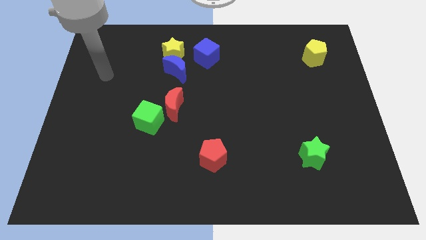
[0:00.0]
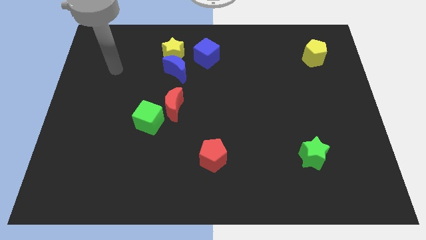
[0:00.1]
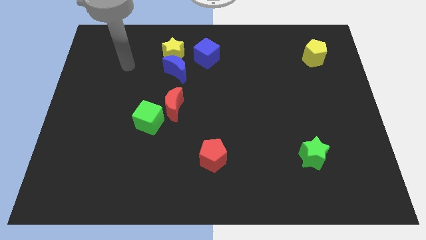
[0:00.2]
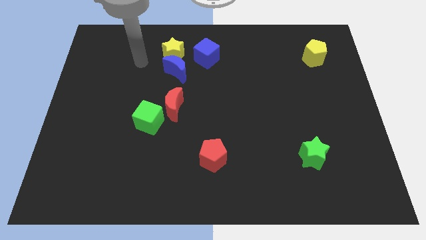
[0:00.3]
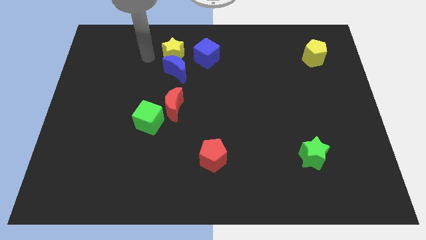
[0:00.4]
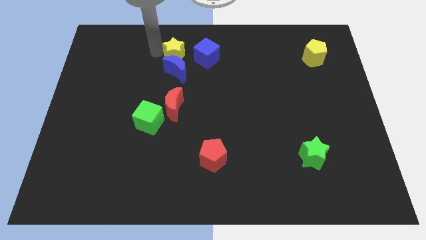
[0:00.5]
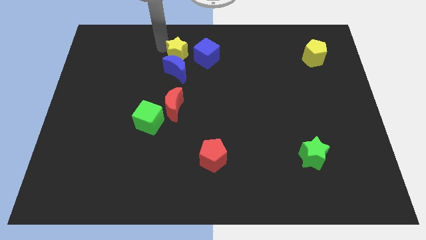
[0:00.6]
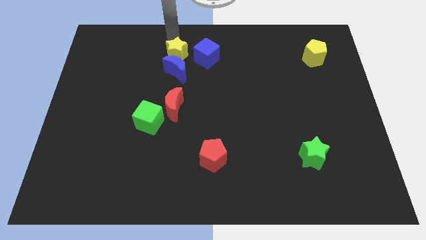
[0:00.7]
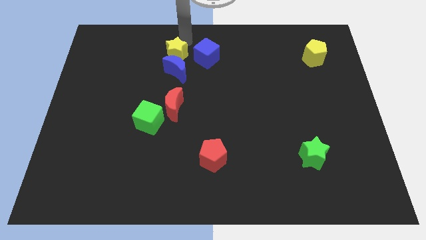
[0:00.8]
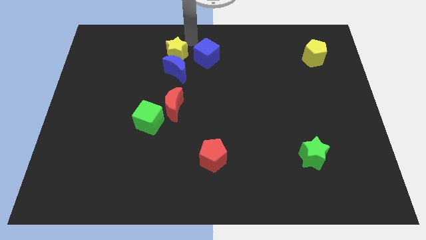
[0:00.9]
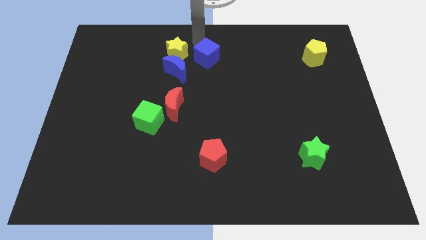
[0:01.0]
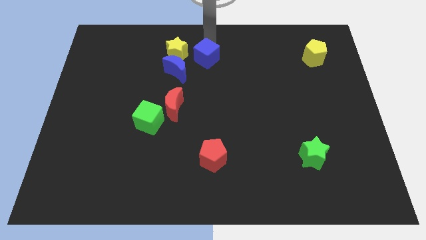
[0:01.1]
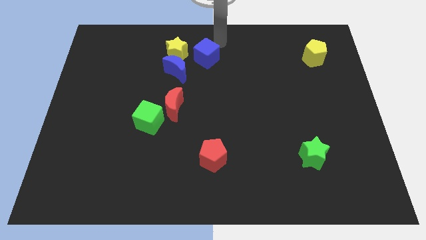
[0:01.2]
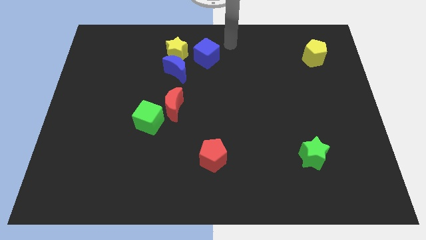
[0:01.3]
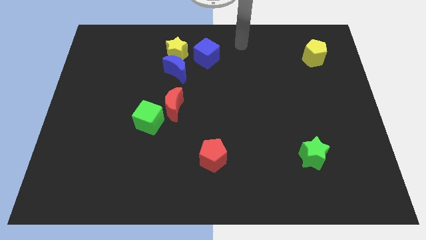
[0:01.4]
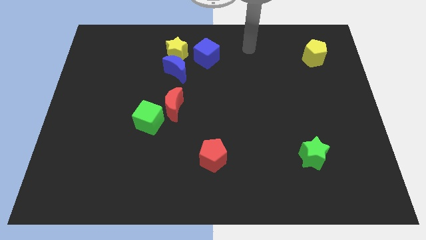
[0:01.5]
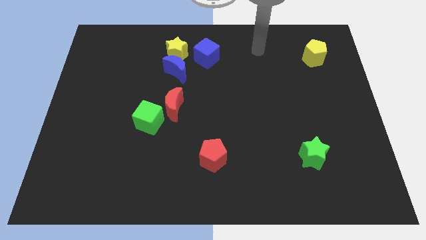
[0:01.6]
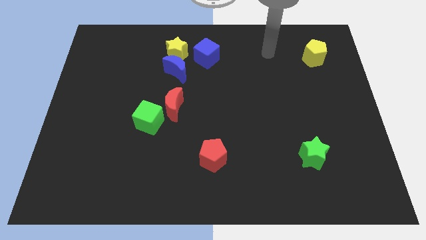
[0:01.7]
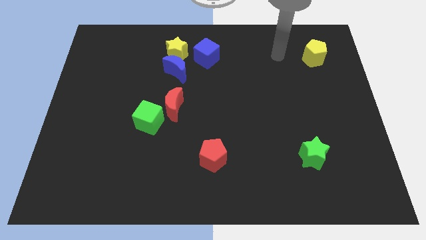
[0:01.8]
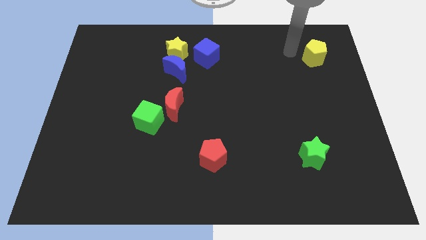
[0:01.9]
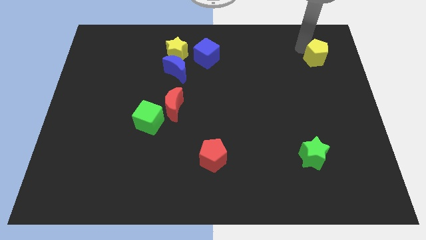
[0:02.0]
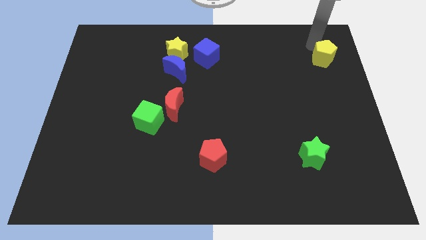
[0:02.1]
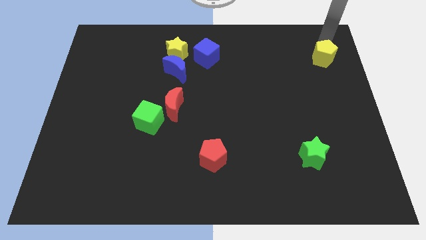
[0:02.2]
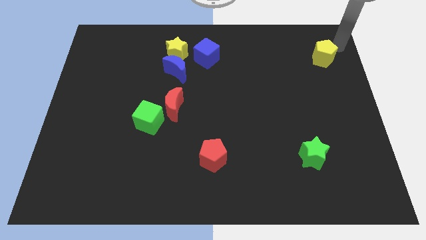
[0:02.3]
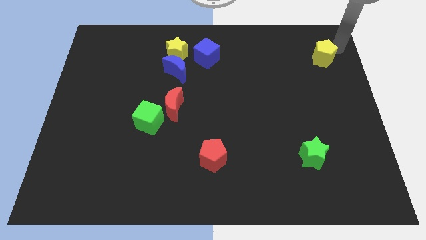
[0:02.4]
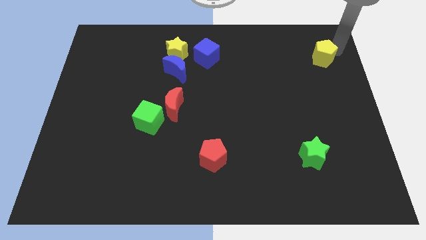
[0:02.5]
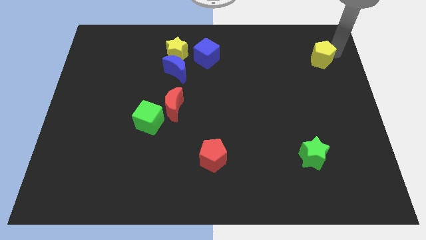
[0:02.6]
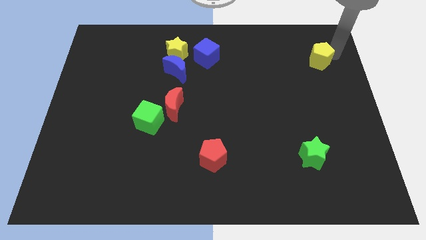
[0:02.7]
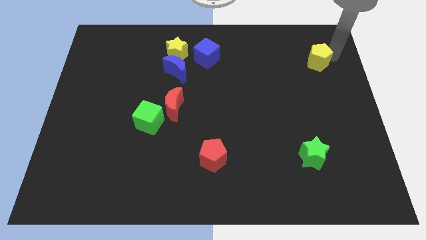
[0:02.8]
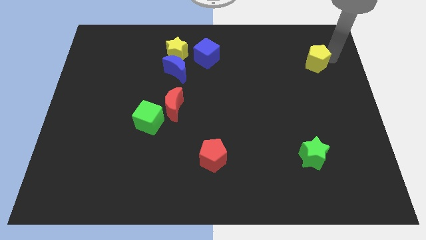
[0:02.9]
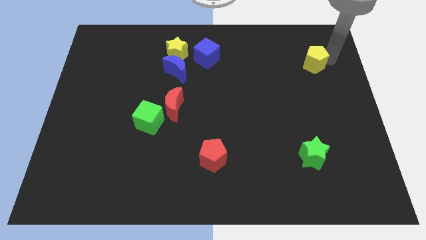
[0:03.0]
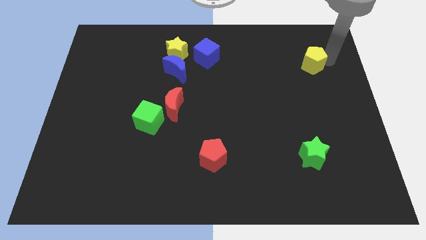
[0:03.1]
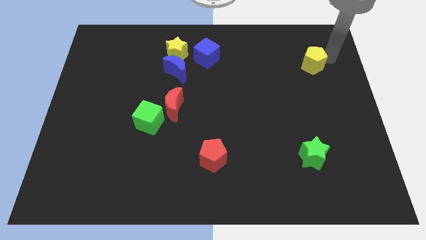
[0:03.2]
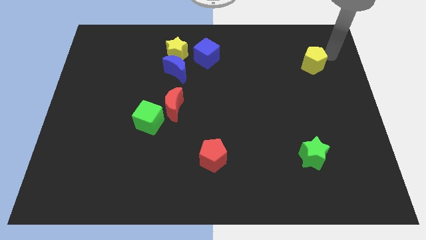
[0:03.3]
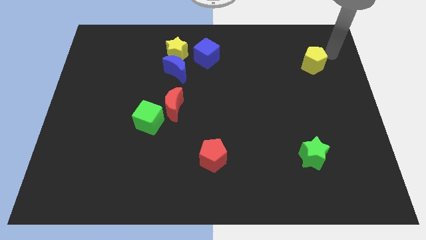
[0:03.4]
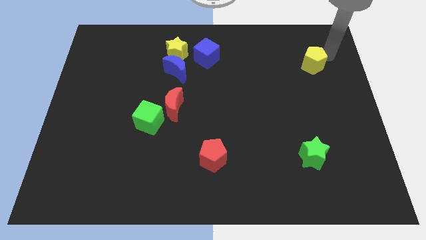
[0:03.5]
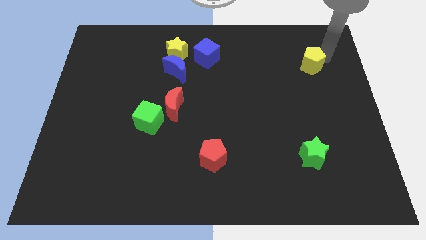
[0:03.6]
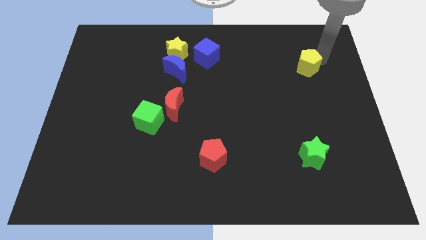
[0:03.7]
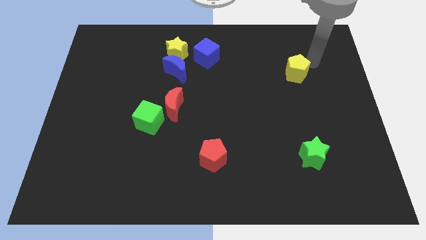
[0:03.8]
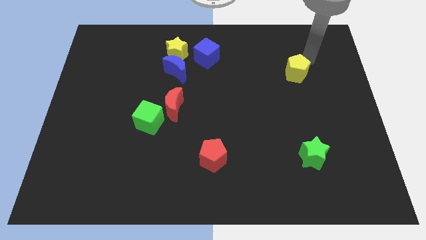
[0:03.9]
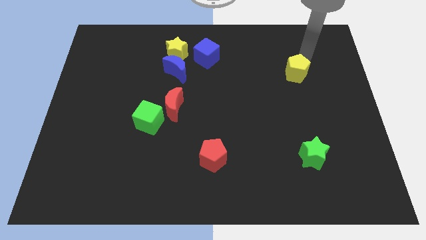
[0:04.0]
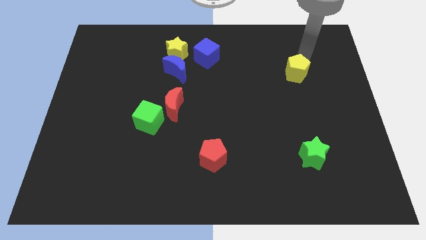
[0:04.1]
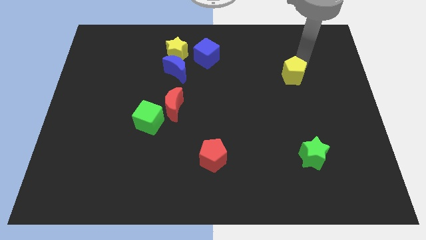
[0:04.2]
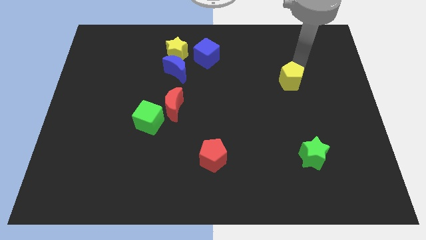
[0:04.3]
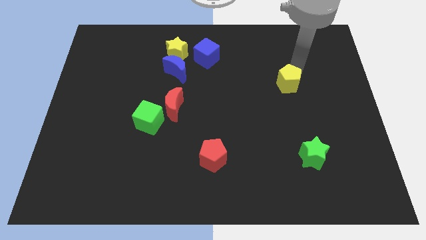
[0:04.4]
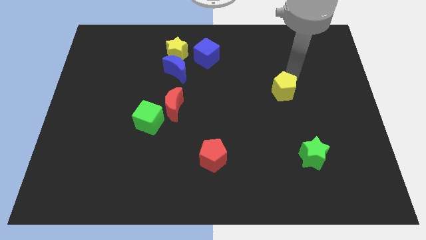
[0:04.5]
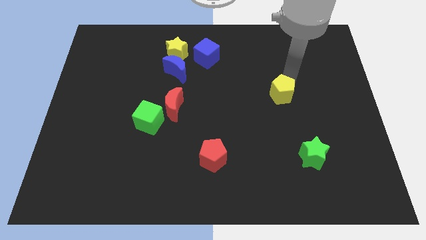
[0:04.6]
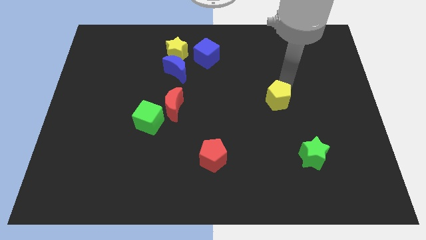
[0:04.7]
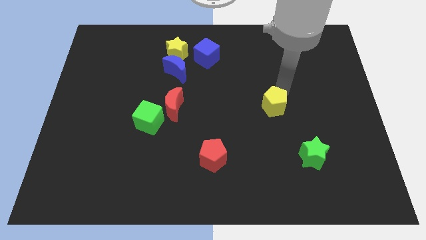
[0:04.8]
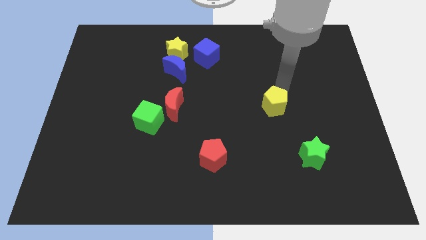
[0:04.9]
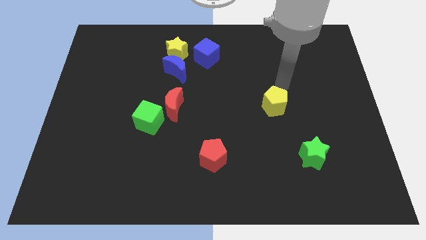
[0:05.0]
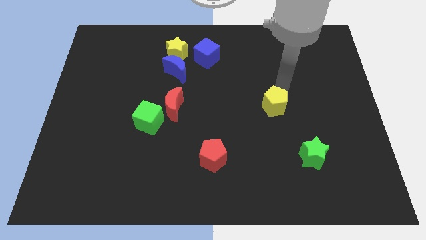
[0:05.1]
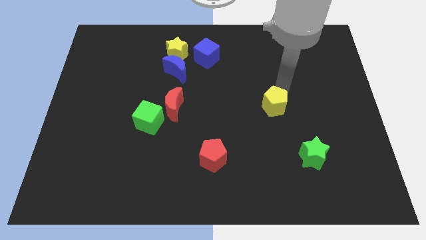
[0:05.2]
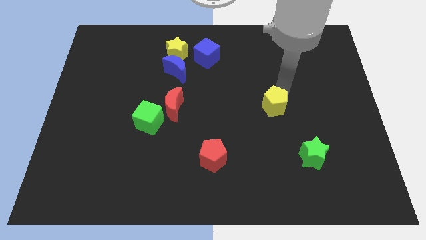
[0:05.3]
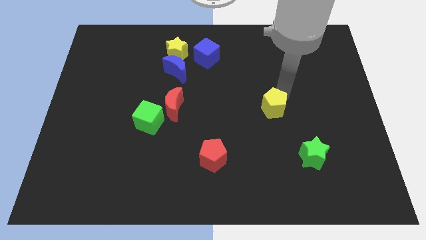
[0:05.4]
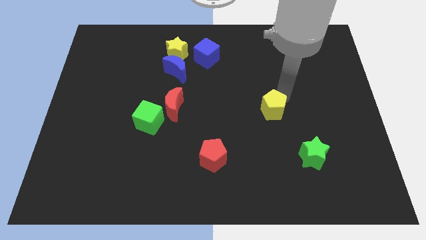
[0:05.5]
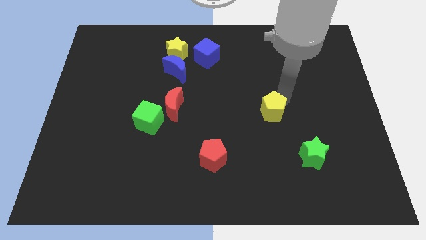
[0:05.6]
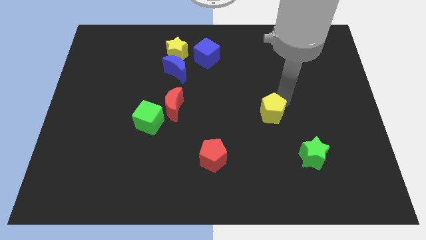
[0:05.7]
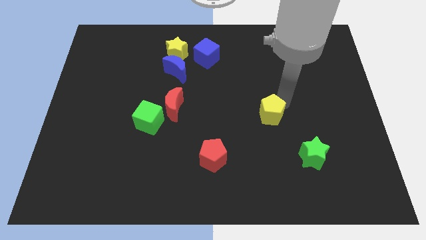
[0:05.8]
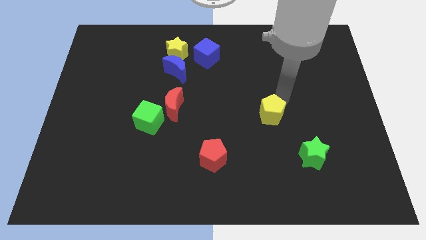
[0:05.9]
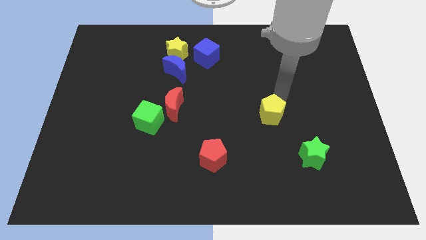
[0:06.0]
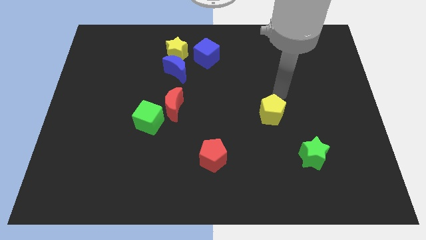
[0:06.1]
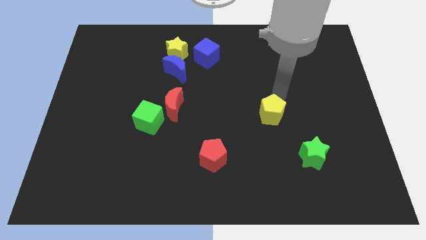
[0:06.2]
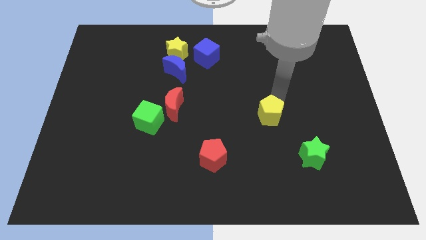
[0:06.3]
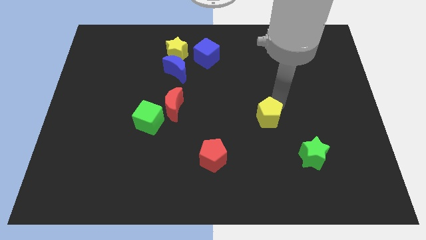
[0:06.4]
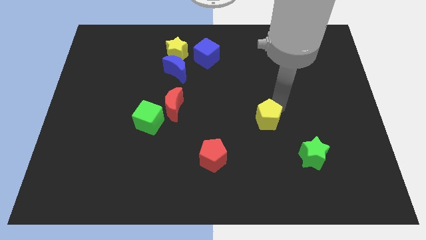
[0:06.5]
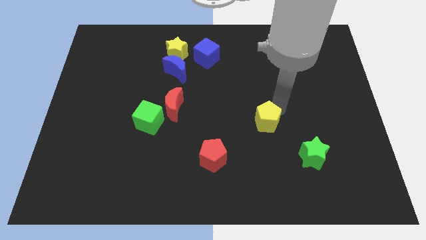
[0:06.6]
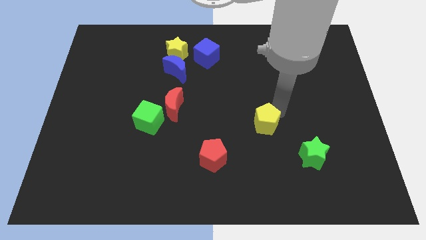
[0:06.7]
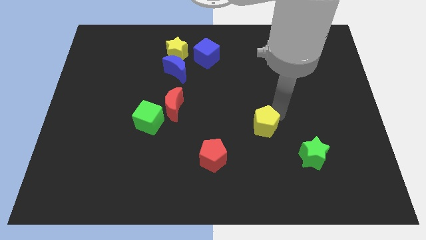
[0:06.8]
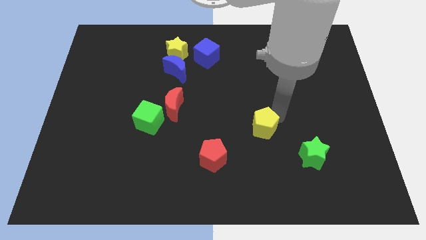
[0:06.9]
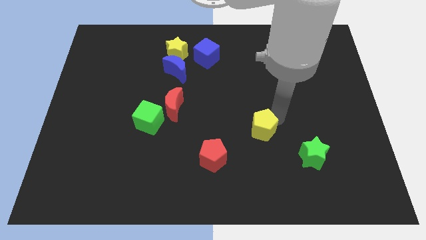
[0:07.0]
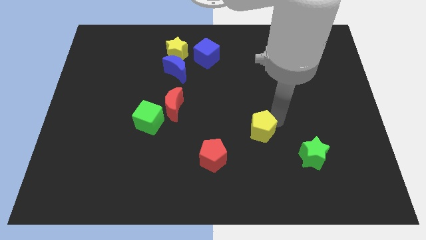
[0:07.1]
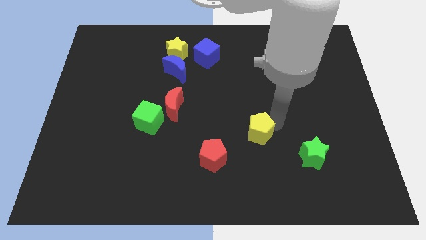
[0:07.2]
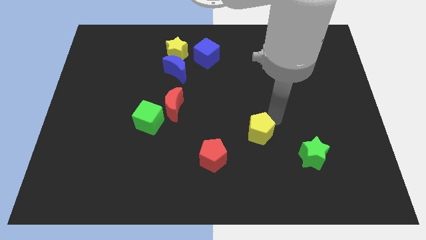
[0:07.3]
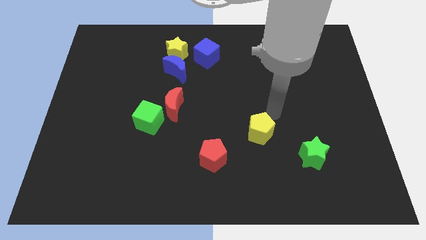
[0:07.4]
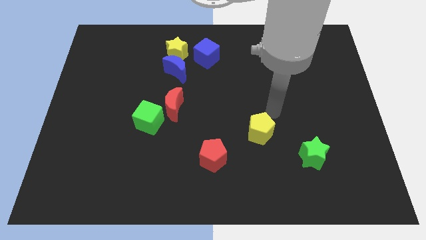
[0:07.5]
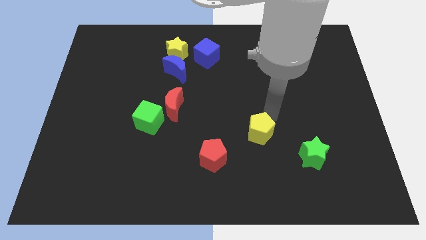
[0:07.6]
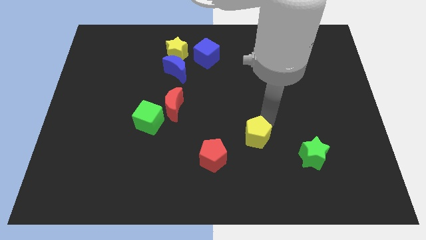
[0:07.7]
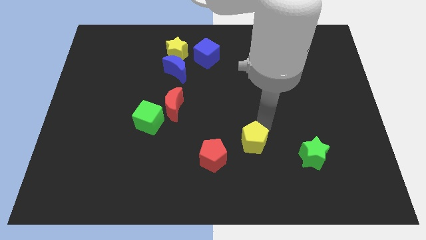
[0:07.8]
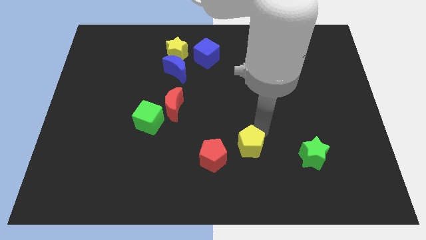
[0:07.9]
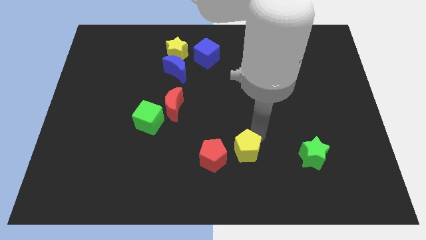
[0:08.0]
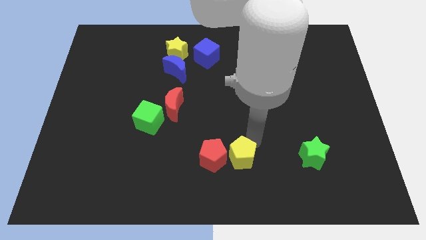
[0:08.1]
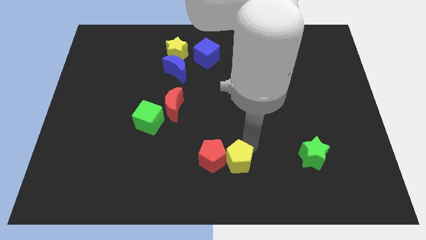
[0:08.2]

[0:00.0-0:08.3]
move the yellow pentagon to the bottom
